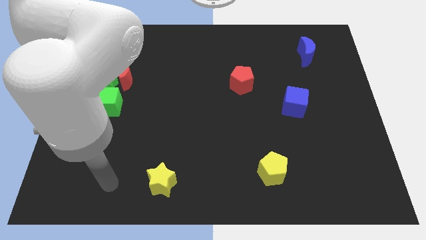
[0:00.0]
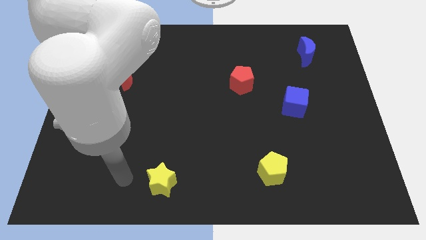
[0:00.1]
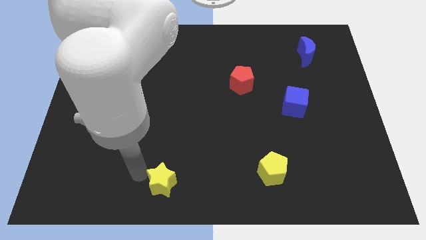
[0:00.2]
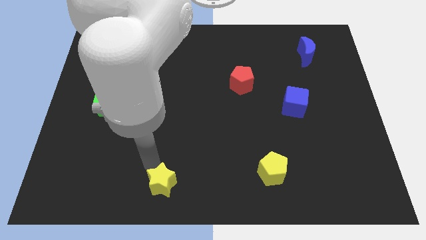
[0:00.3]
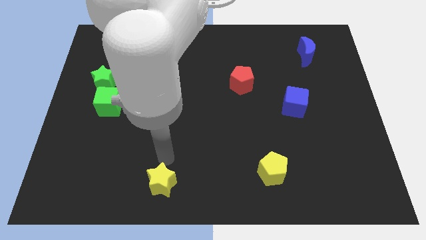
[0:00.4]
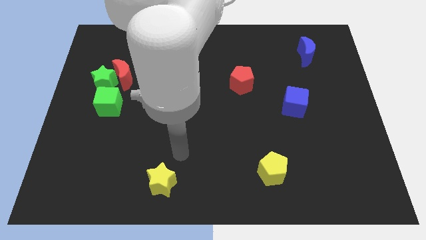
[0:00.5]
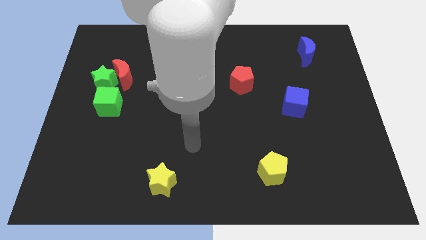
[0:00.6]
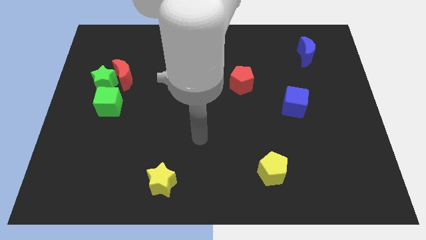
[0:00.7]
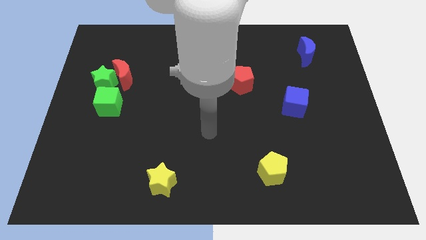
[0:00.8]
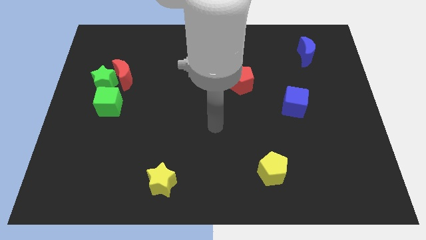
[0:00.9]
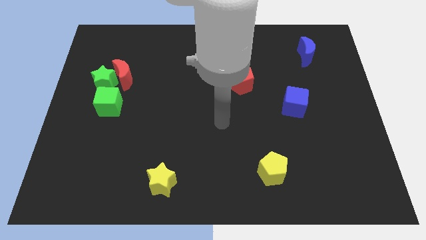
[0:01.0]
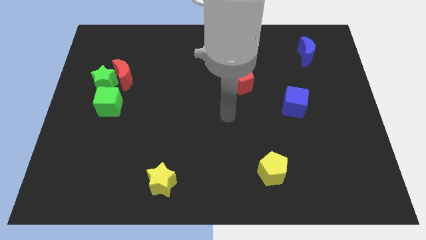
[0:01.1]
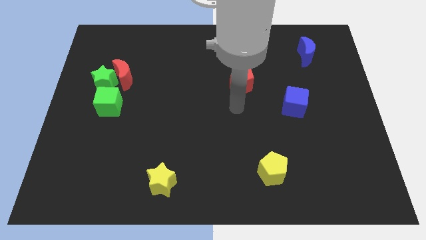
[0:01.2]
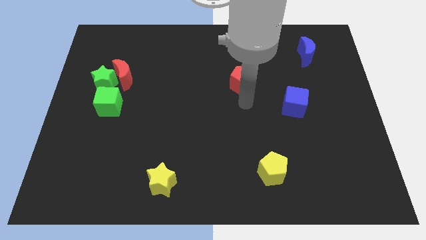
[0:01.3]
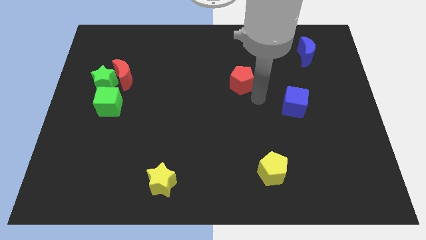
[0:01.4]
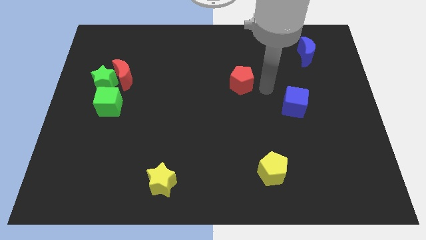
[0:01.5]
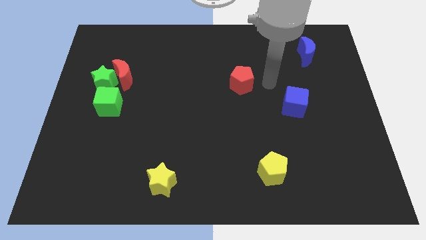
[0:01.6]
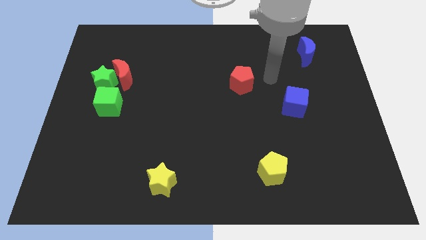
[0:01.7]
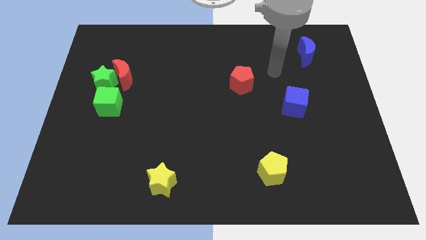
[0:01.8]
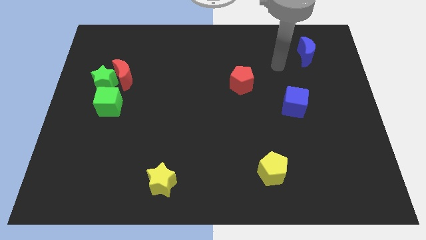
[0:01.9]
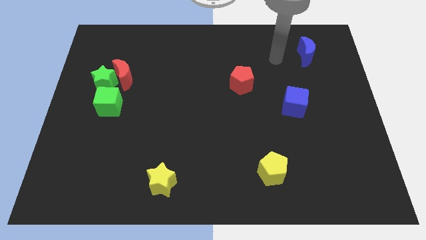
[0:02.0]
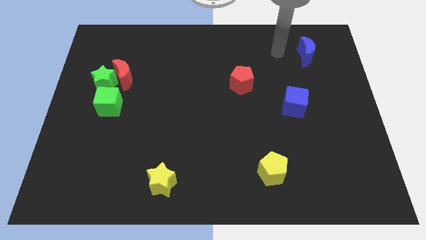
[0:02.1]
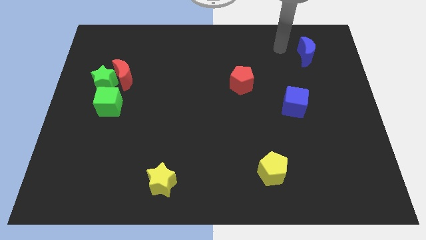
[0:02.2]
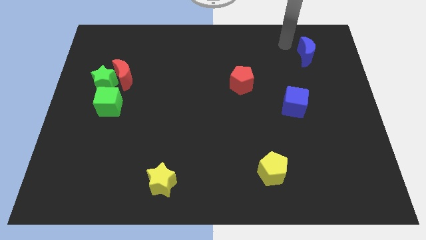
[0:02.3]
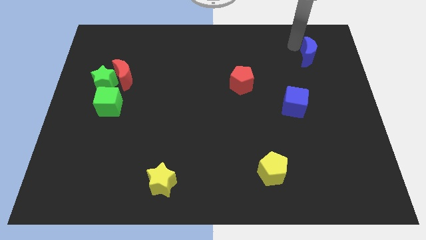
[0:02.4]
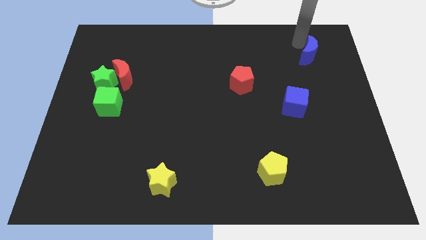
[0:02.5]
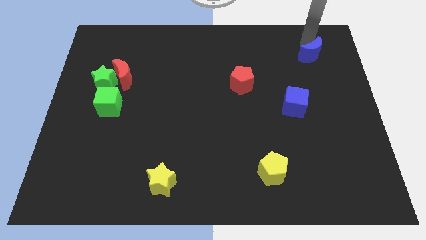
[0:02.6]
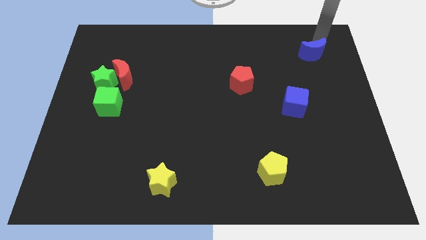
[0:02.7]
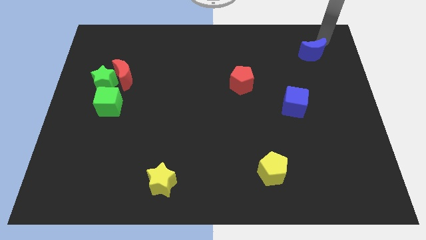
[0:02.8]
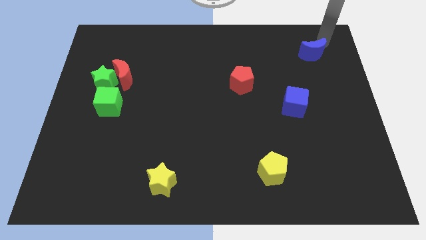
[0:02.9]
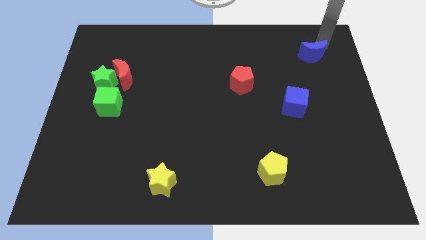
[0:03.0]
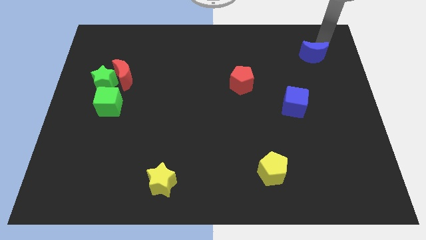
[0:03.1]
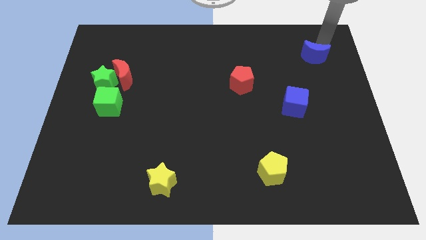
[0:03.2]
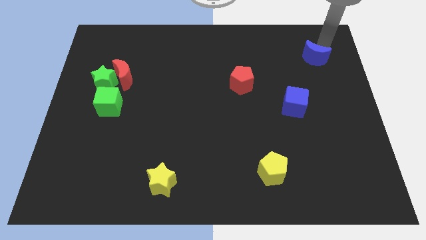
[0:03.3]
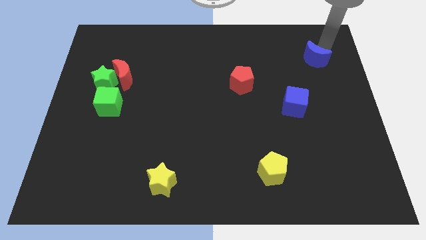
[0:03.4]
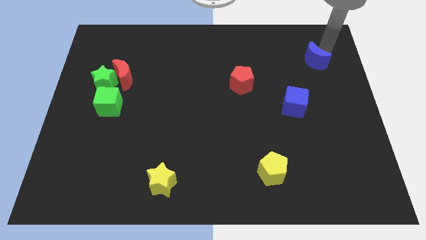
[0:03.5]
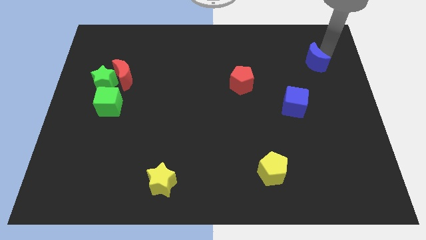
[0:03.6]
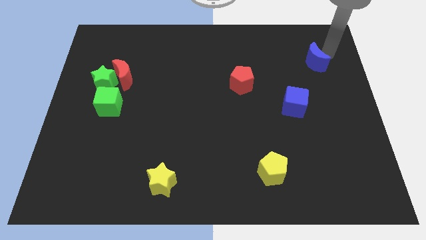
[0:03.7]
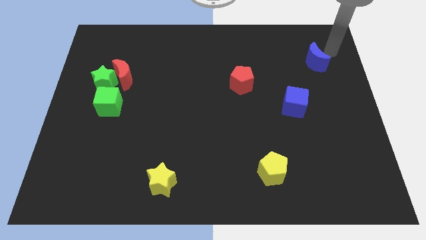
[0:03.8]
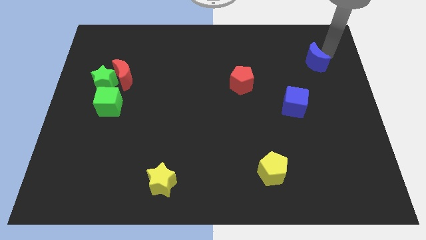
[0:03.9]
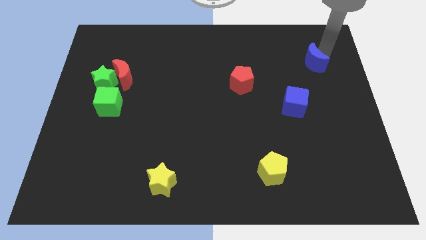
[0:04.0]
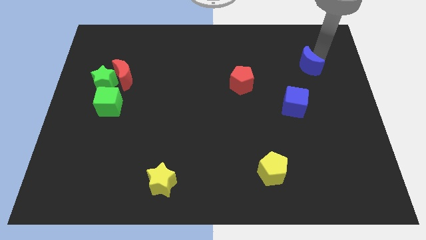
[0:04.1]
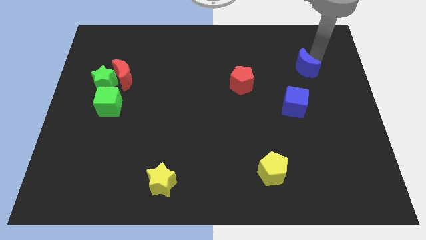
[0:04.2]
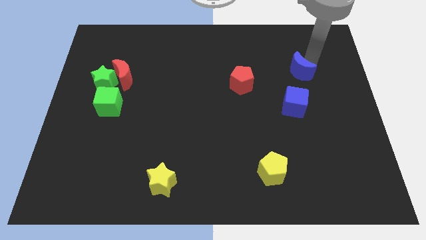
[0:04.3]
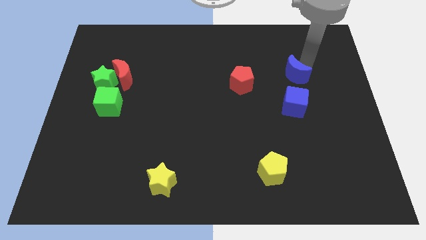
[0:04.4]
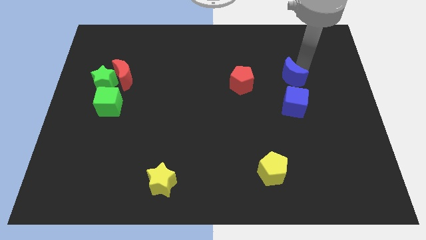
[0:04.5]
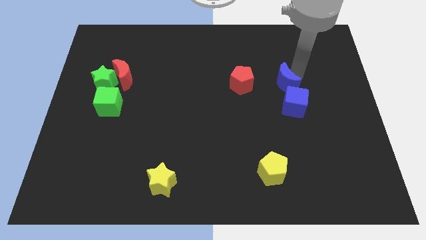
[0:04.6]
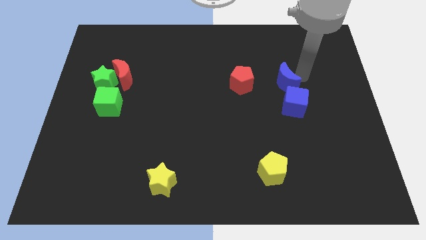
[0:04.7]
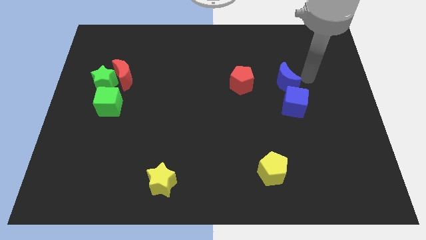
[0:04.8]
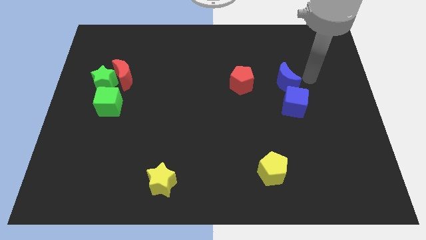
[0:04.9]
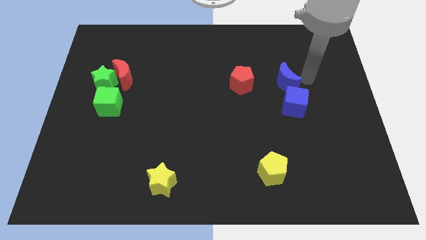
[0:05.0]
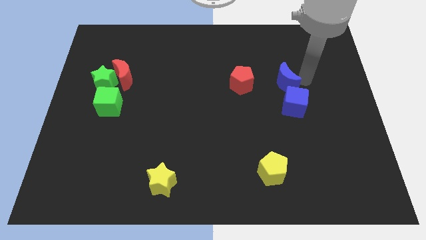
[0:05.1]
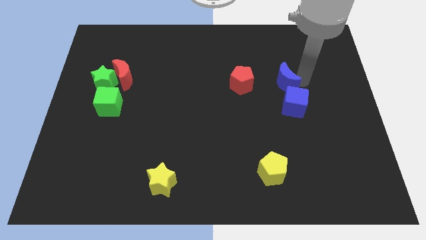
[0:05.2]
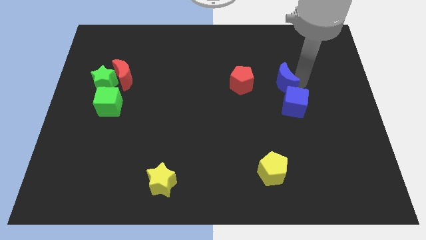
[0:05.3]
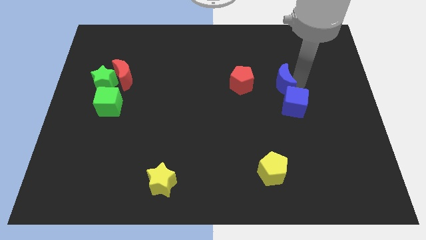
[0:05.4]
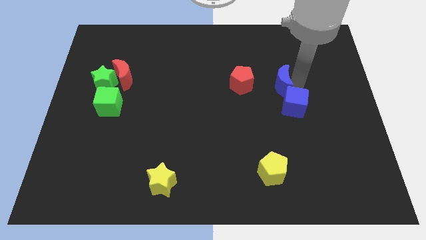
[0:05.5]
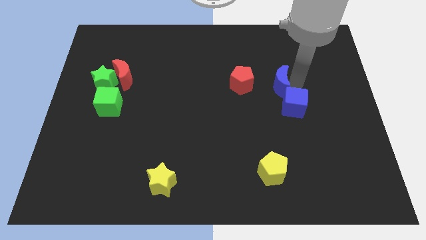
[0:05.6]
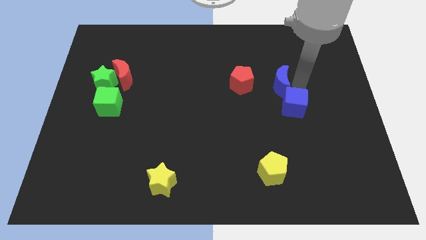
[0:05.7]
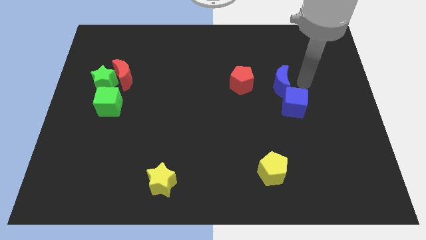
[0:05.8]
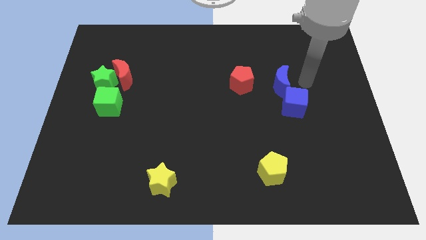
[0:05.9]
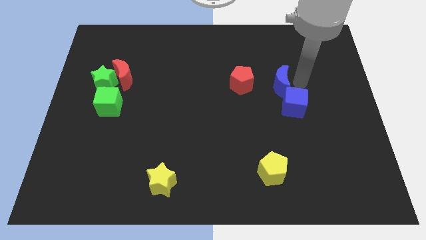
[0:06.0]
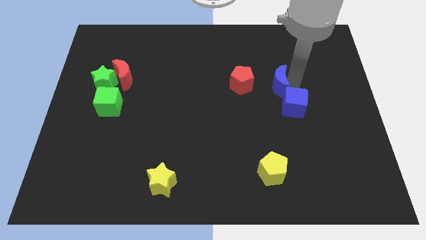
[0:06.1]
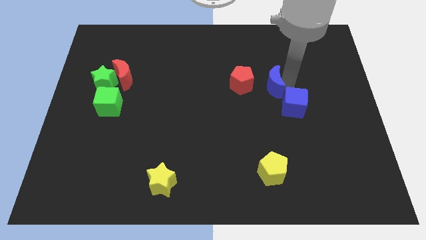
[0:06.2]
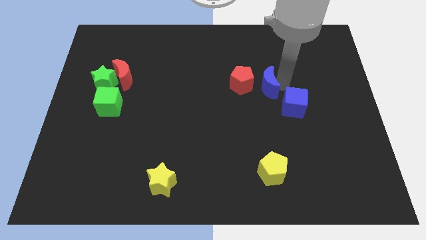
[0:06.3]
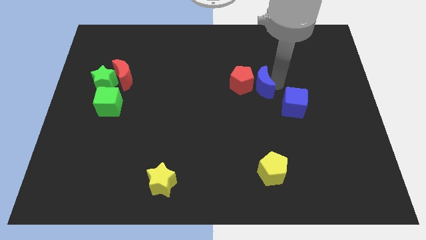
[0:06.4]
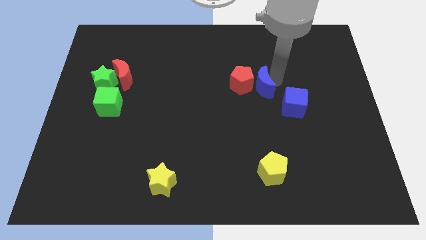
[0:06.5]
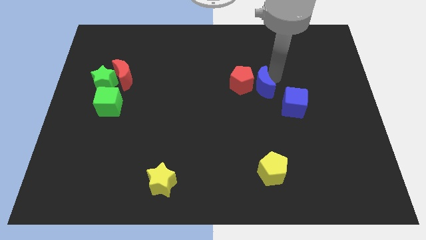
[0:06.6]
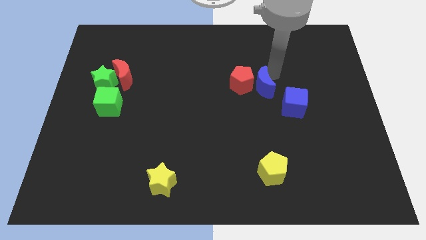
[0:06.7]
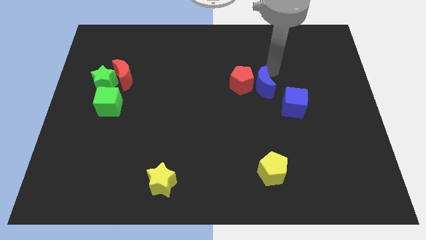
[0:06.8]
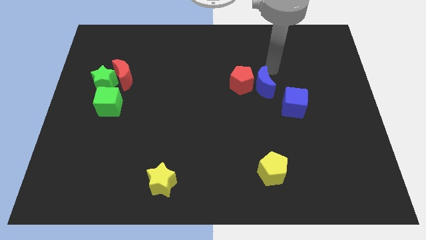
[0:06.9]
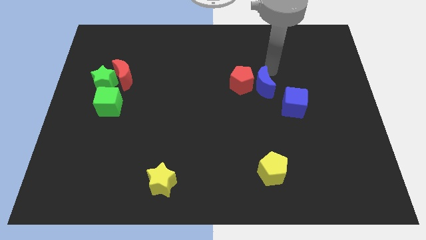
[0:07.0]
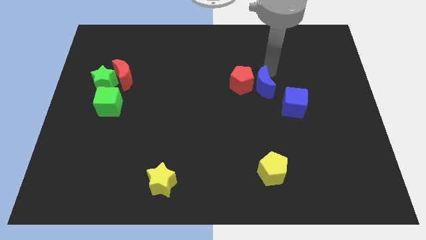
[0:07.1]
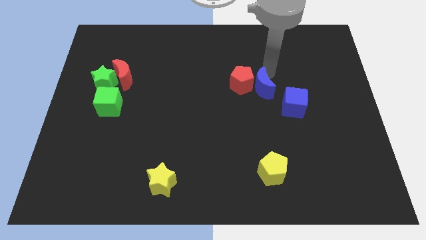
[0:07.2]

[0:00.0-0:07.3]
push the blue moon to the center
